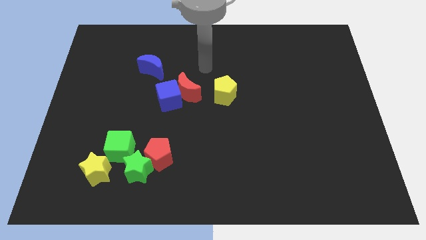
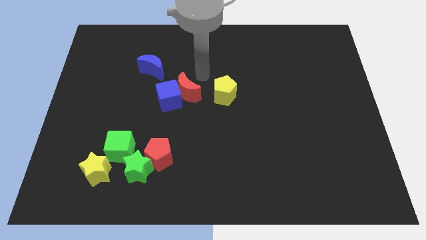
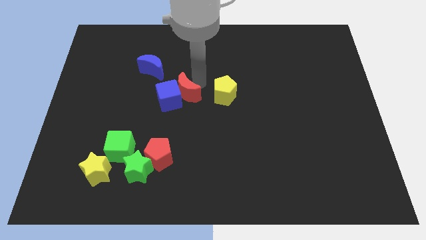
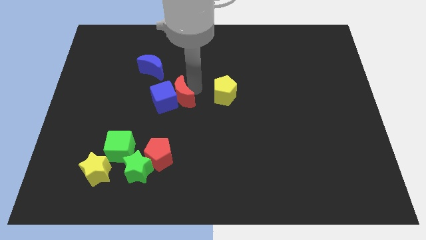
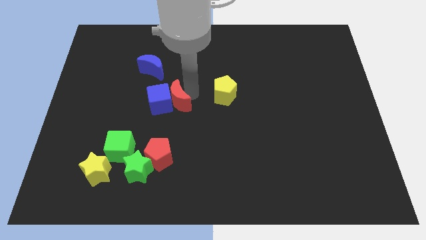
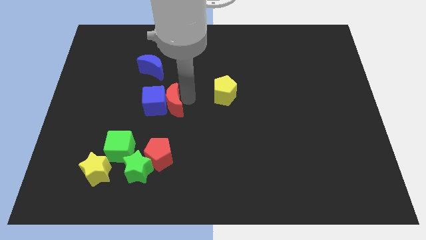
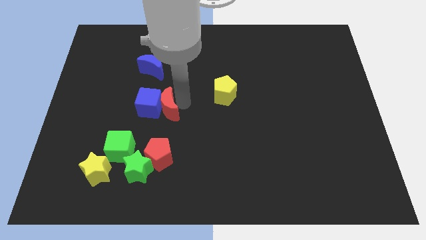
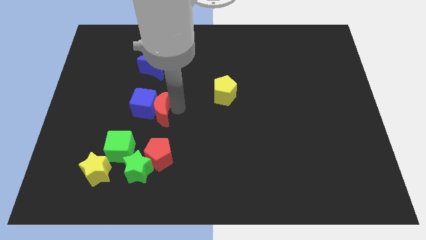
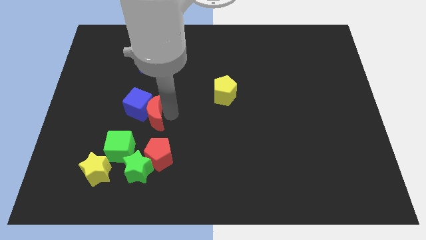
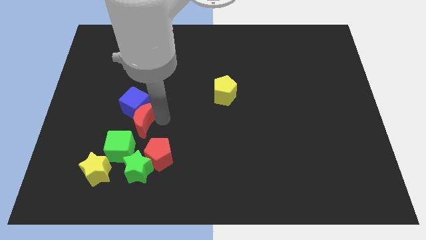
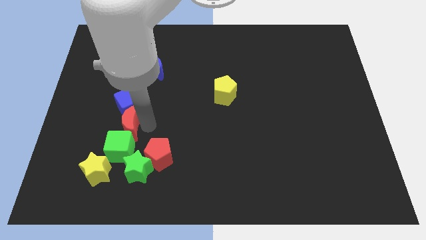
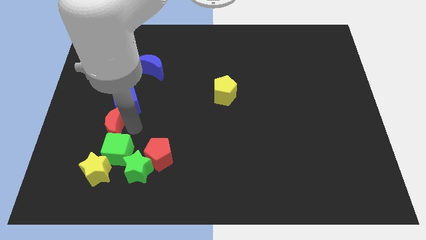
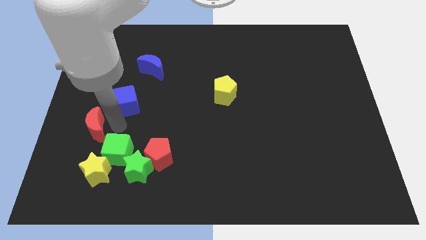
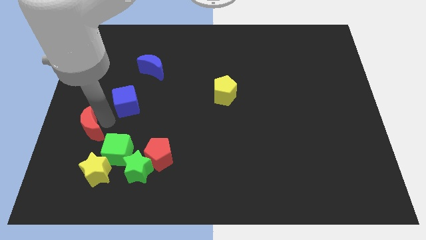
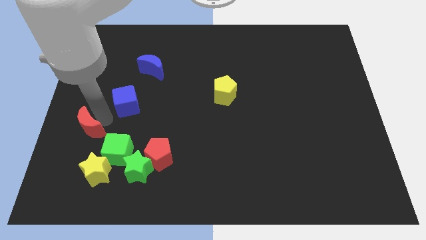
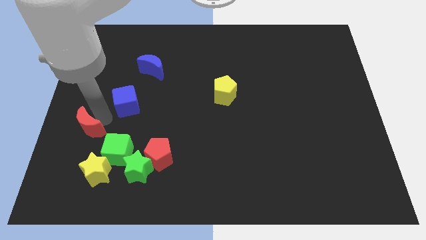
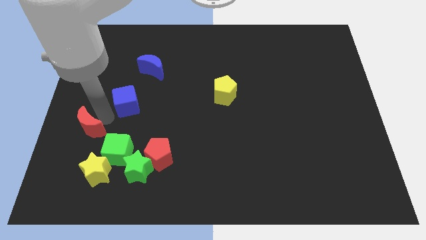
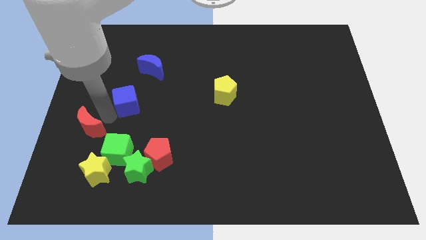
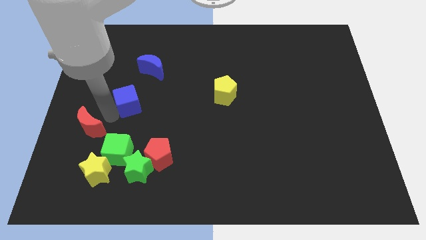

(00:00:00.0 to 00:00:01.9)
separate the blue cube from the red moon

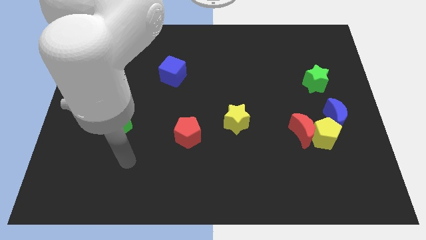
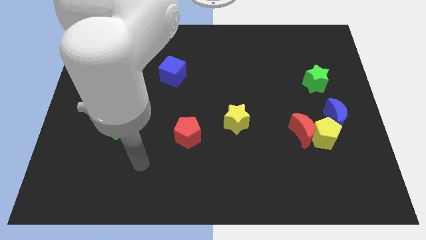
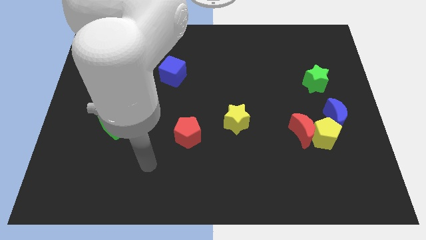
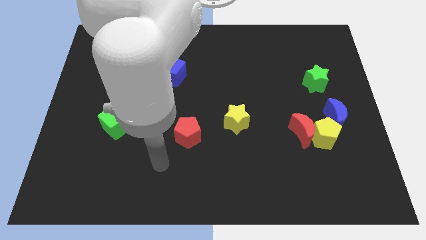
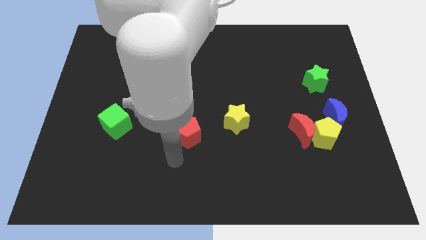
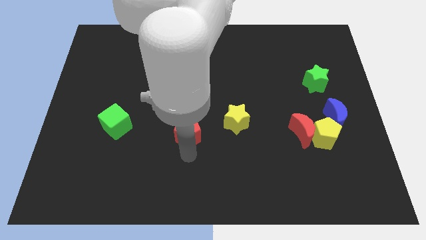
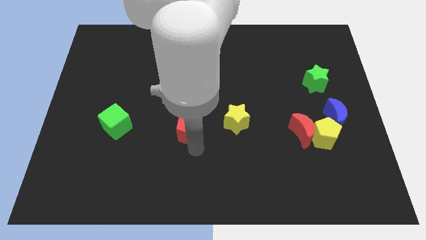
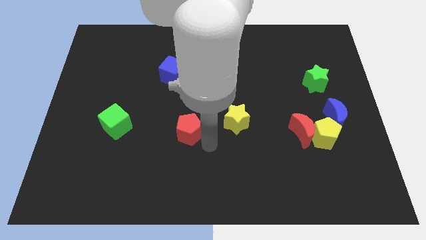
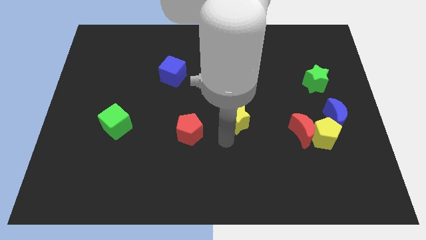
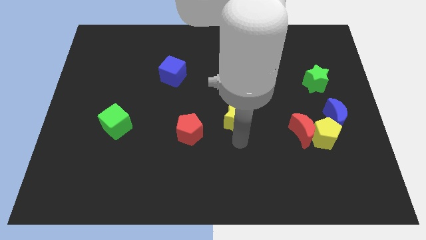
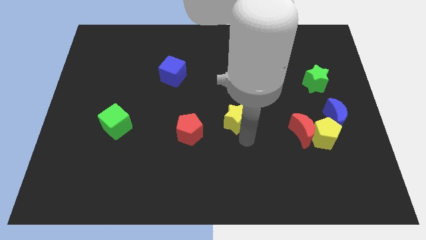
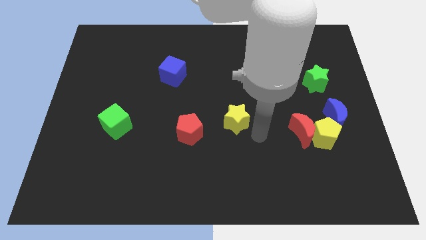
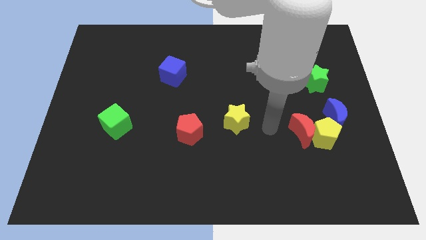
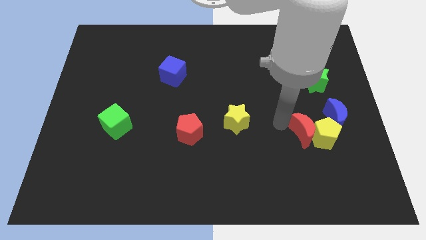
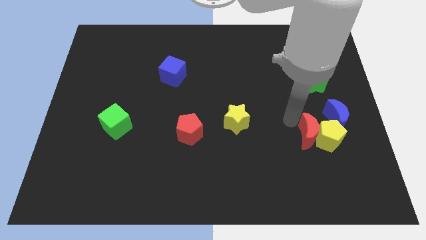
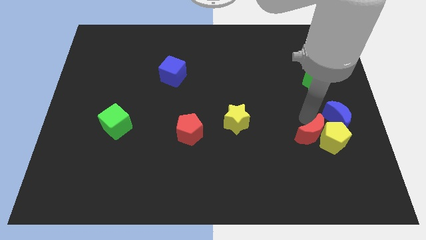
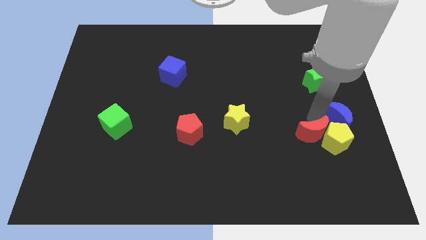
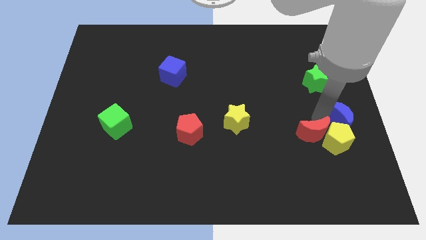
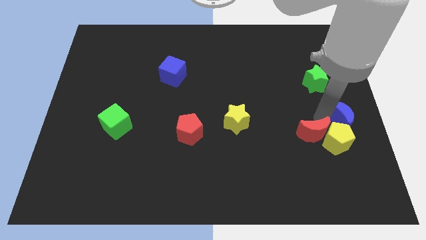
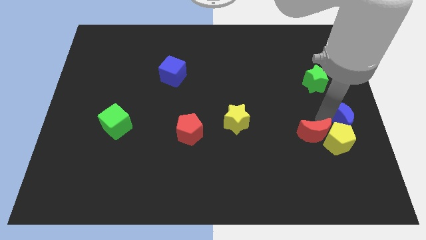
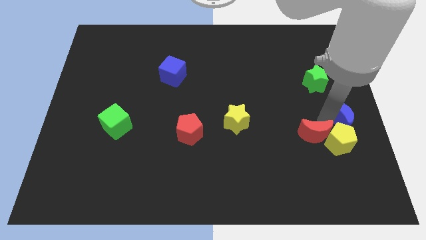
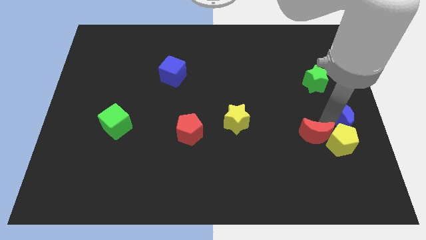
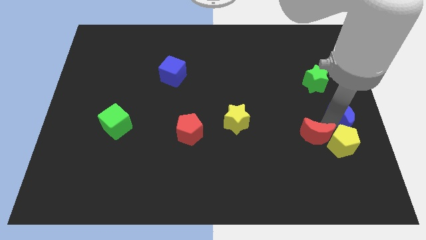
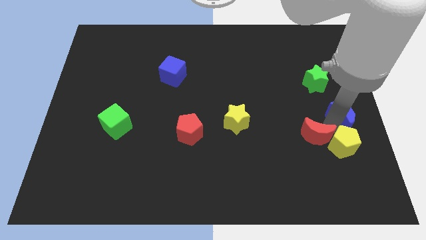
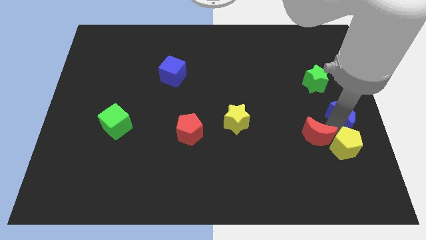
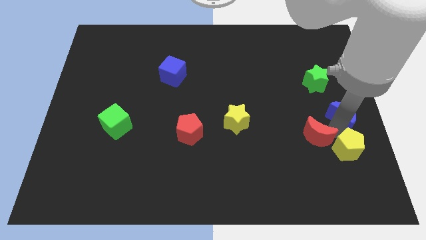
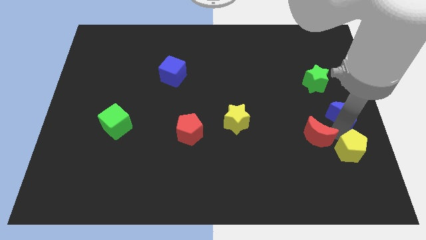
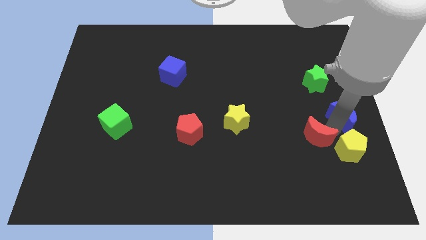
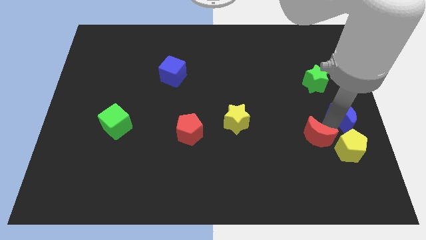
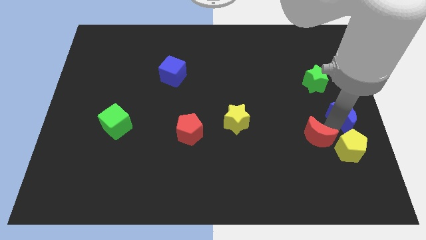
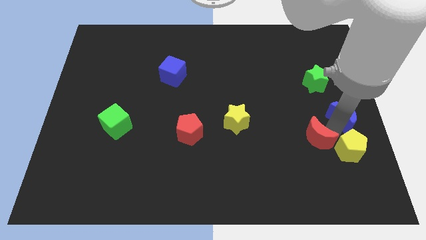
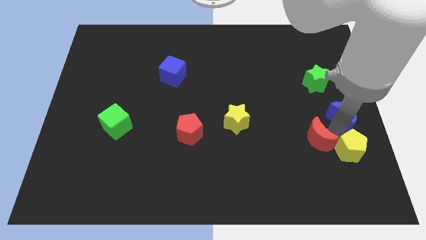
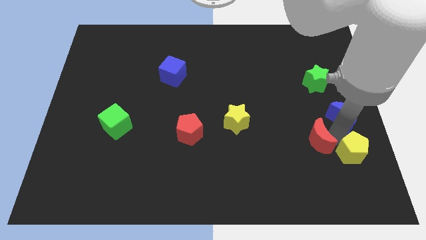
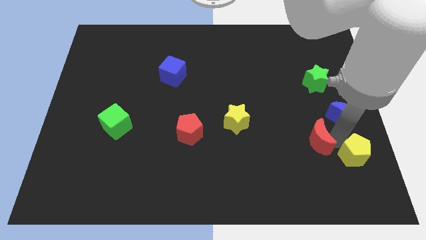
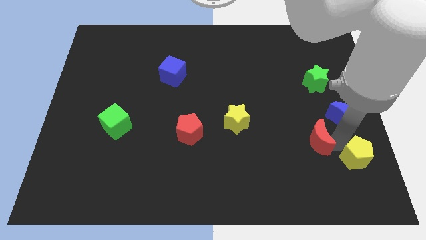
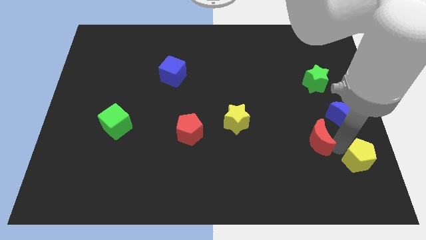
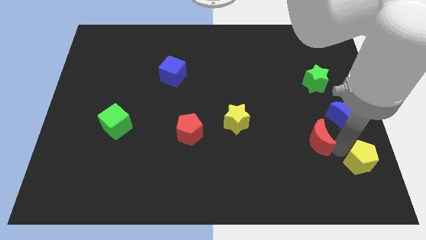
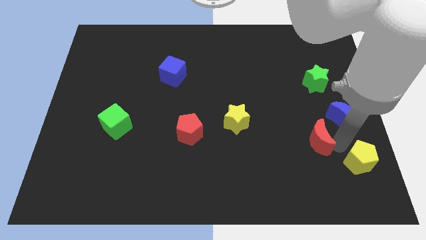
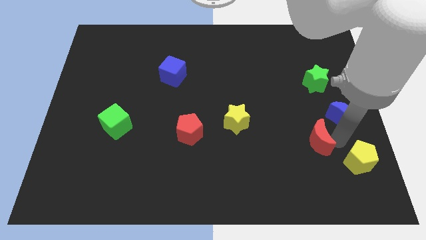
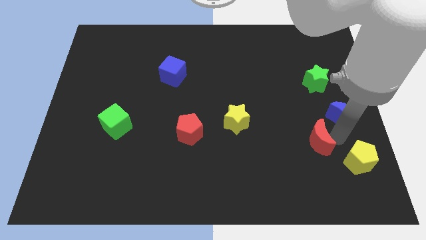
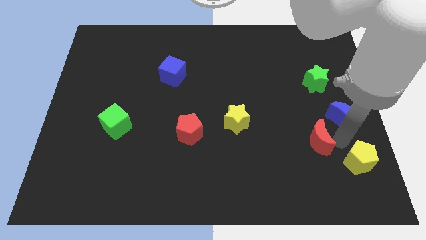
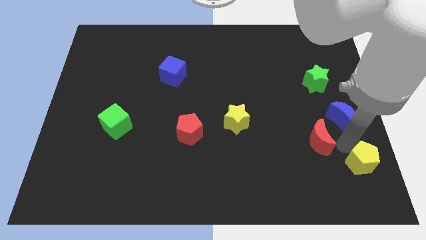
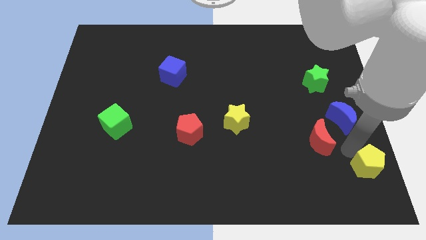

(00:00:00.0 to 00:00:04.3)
move the yellow pentagon away from the red moon and blue moon

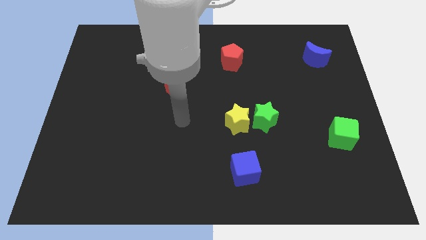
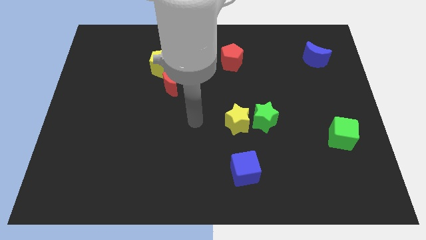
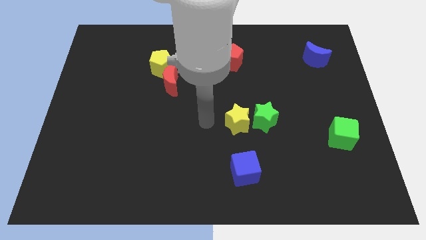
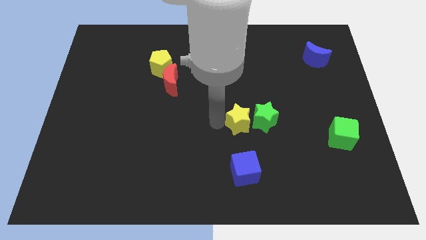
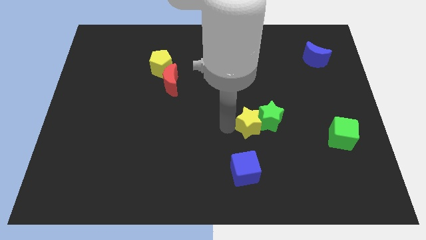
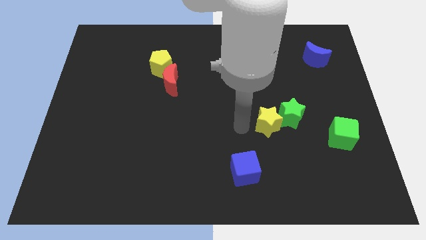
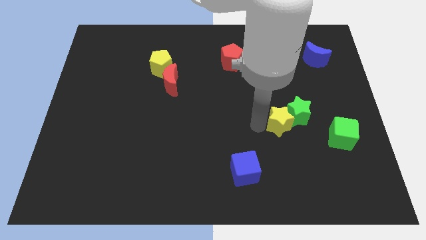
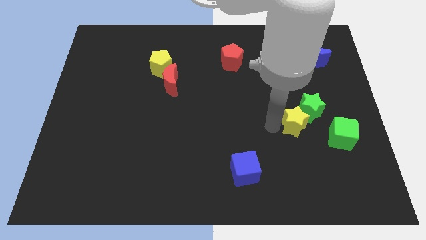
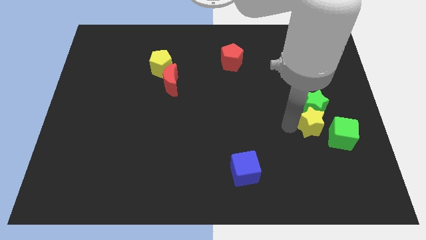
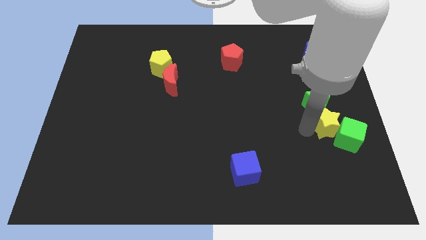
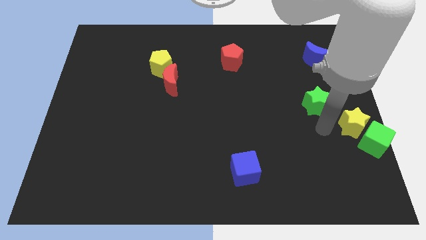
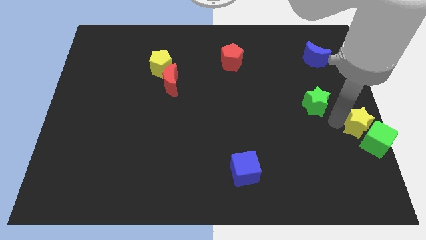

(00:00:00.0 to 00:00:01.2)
separate the green star from the yellow star

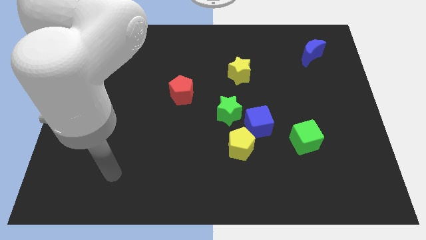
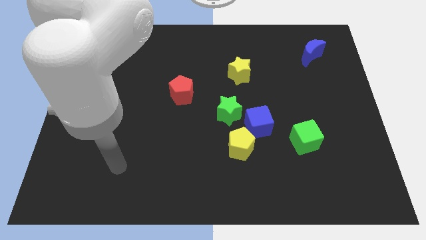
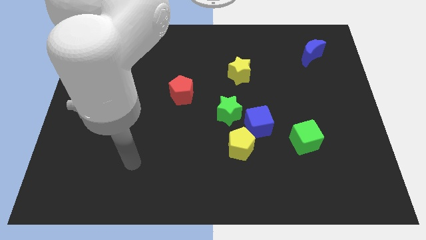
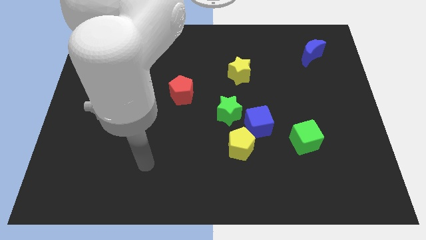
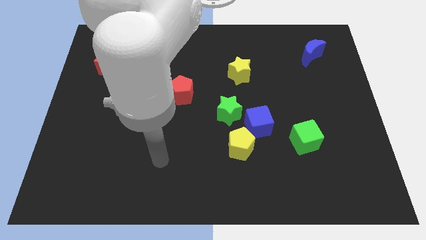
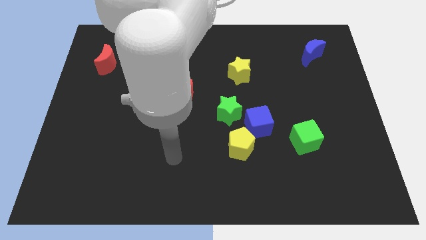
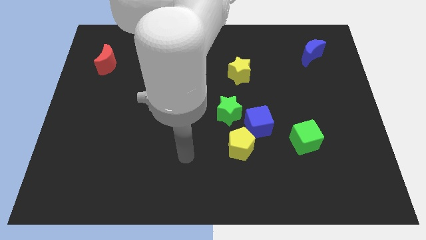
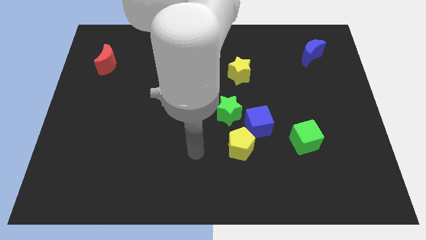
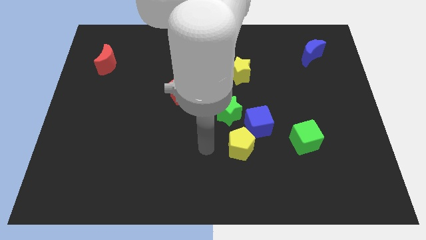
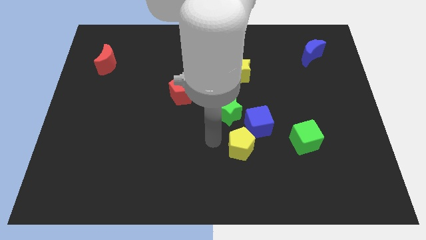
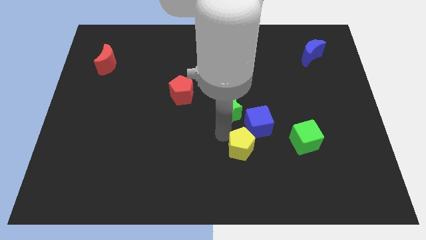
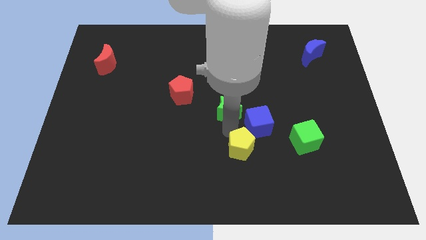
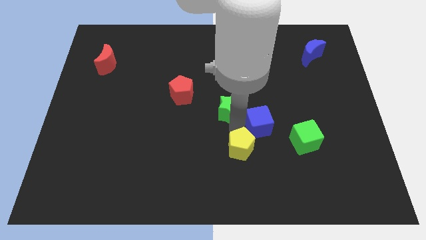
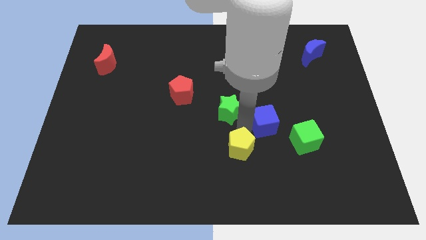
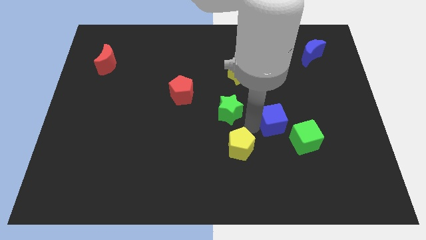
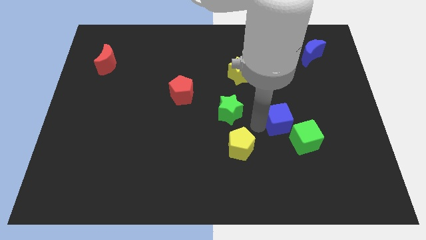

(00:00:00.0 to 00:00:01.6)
separate the blue cube from the yellow pentagon and green star

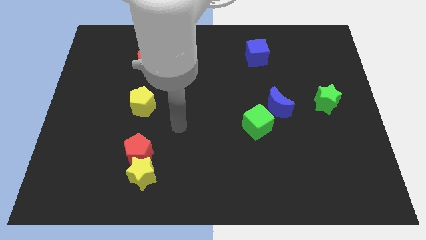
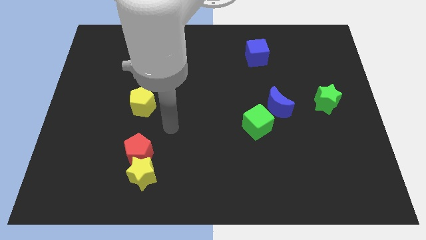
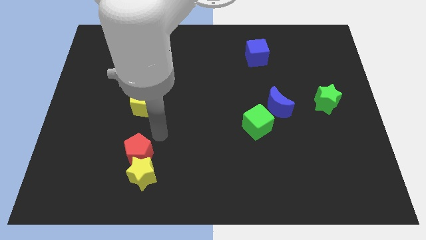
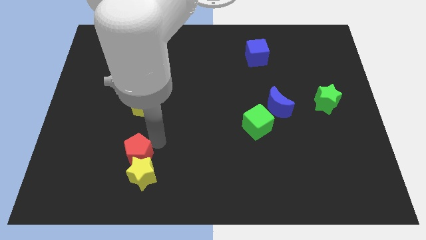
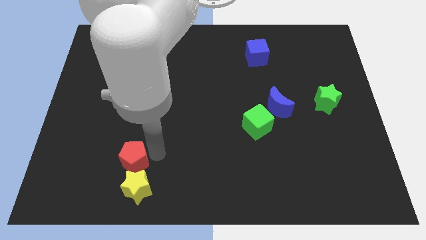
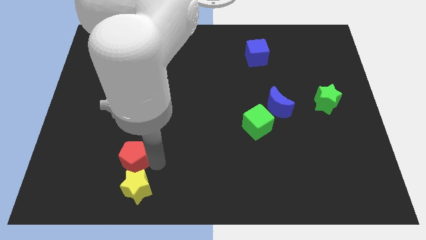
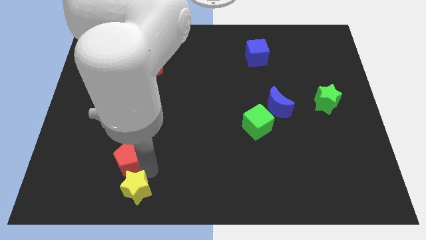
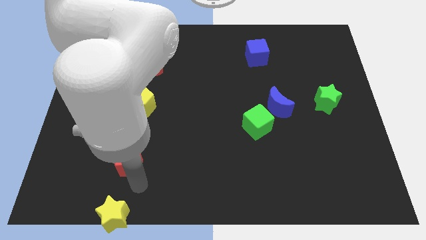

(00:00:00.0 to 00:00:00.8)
move the red pentagon away from the yellow star
